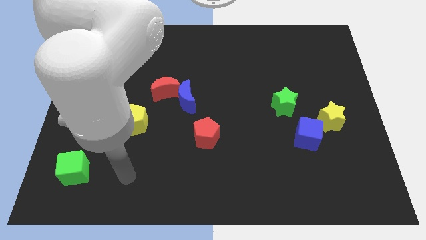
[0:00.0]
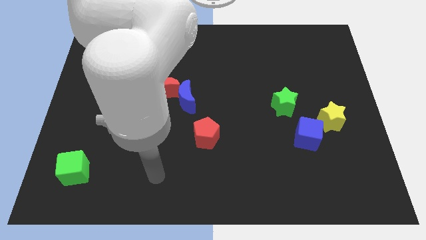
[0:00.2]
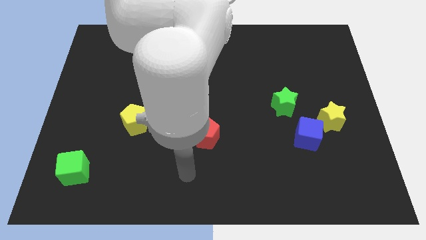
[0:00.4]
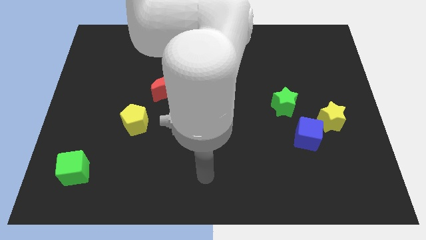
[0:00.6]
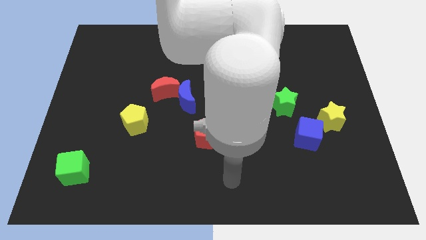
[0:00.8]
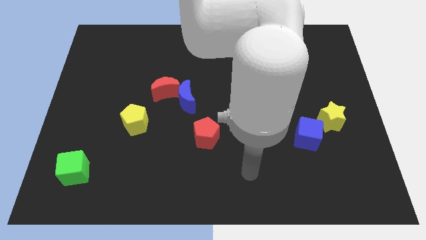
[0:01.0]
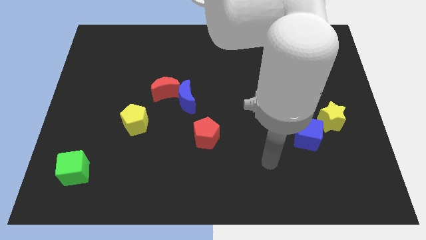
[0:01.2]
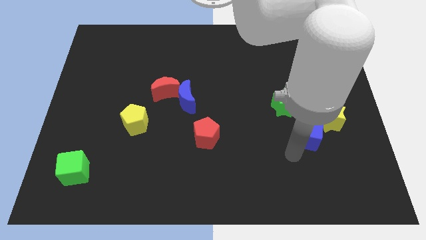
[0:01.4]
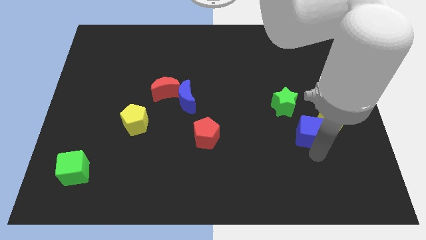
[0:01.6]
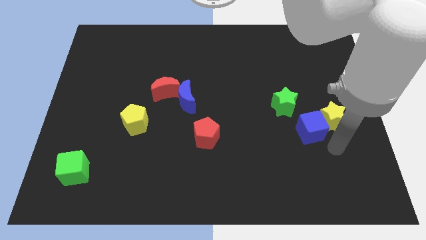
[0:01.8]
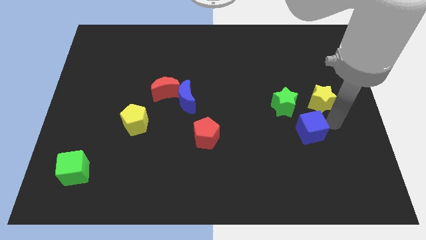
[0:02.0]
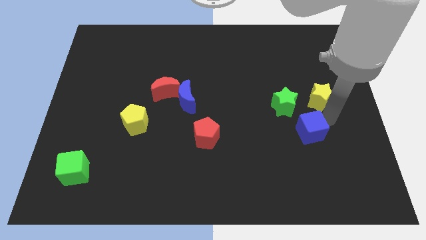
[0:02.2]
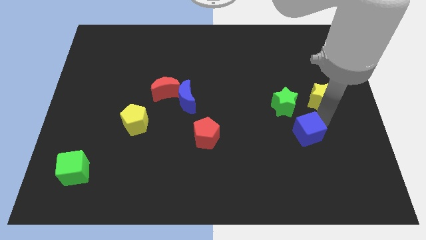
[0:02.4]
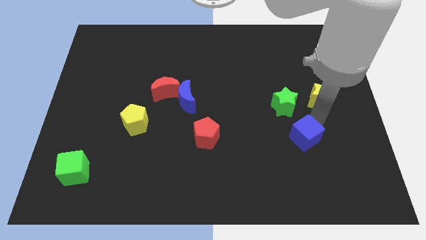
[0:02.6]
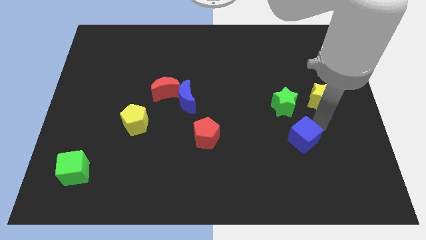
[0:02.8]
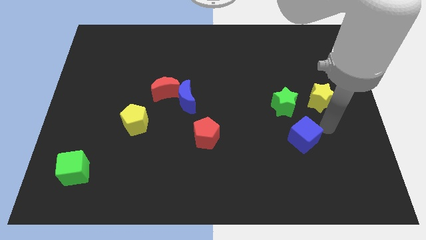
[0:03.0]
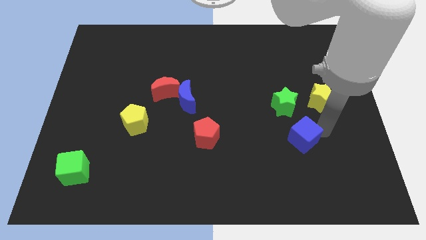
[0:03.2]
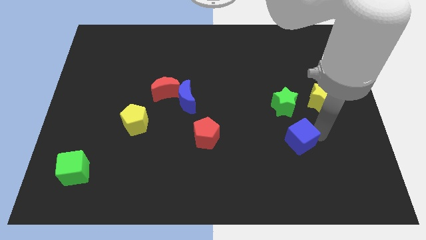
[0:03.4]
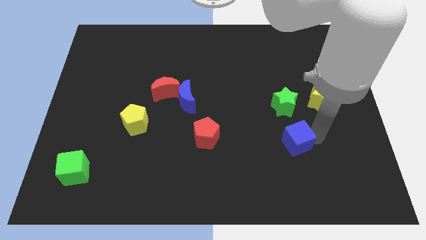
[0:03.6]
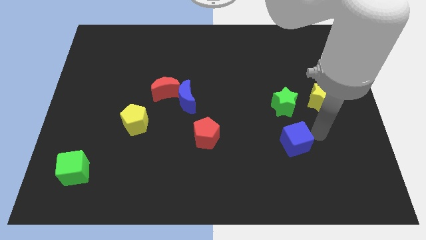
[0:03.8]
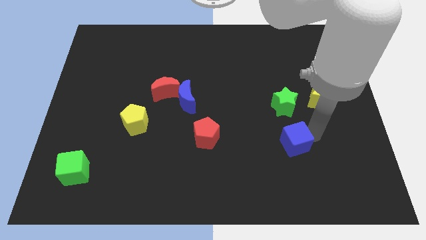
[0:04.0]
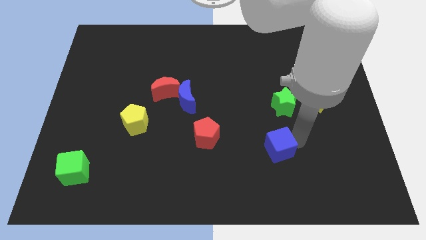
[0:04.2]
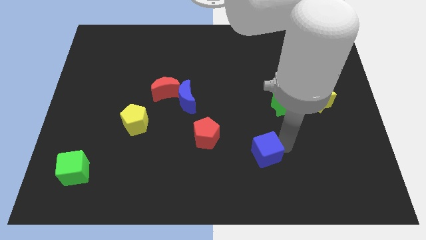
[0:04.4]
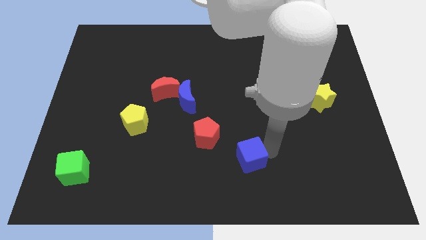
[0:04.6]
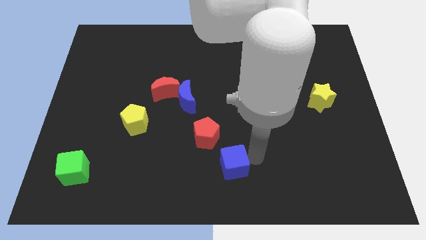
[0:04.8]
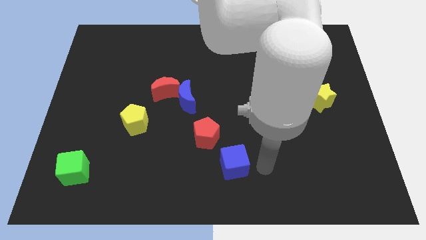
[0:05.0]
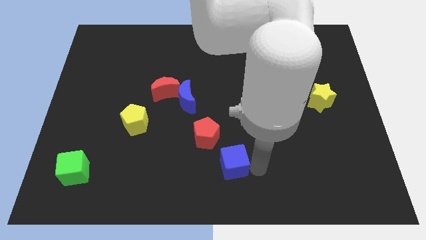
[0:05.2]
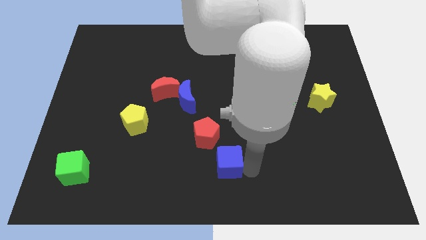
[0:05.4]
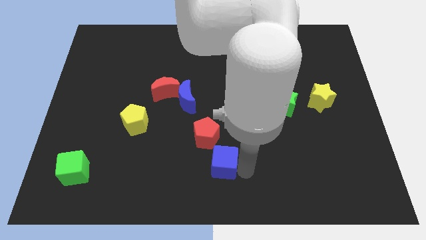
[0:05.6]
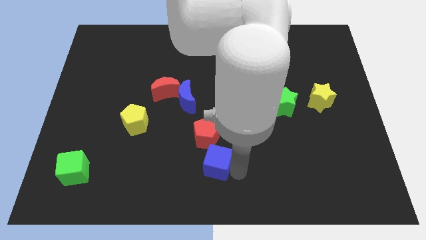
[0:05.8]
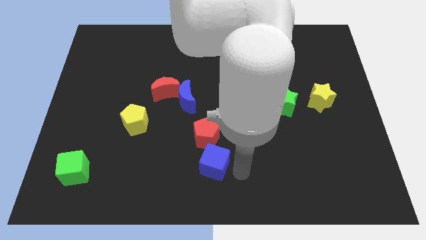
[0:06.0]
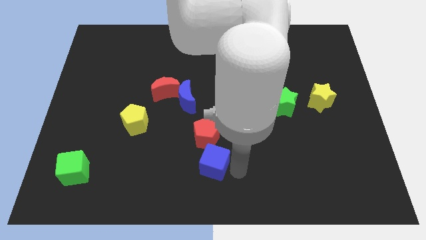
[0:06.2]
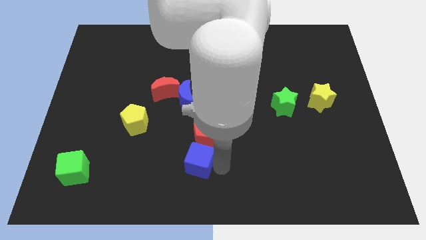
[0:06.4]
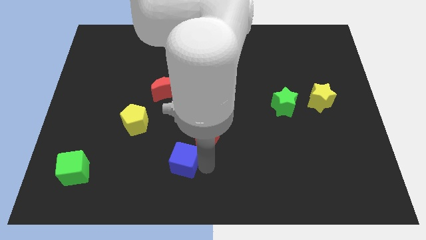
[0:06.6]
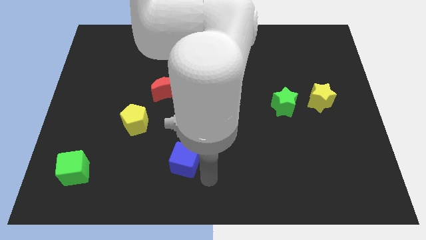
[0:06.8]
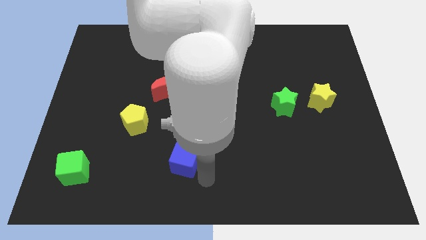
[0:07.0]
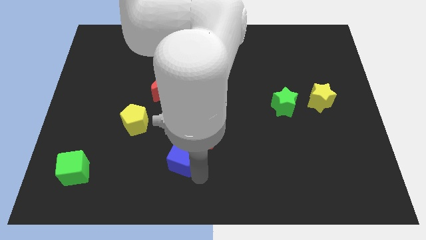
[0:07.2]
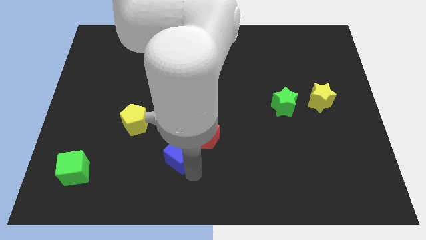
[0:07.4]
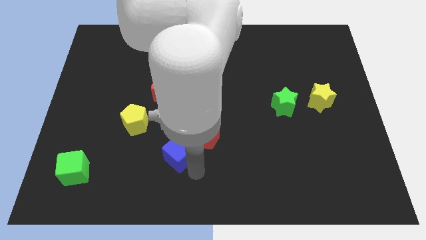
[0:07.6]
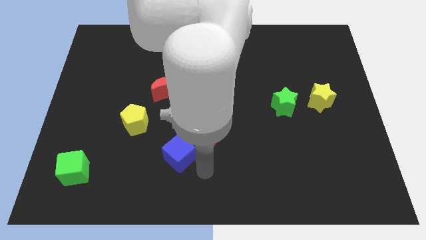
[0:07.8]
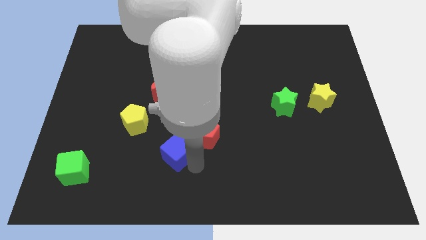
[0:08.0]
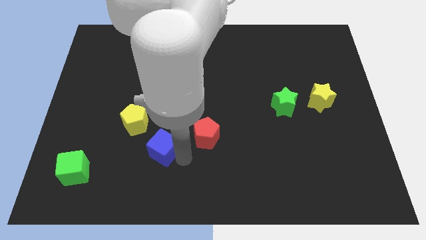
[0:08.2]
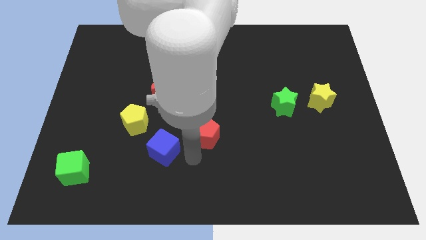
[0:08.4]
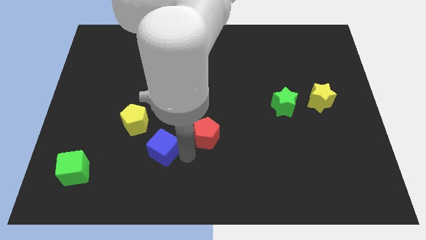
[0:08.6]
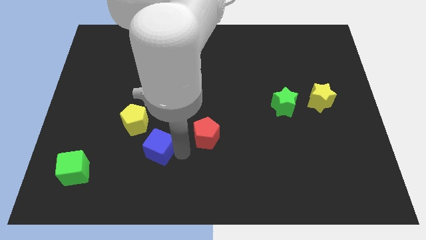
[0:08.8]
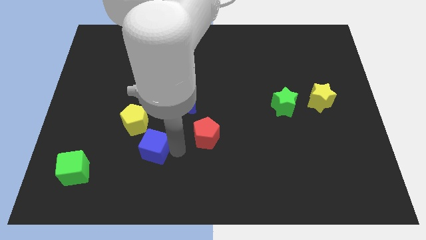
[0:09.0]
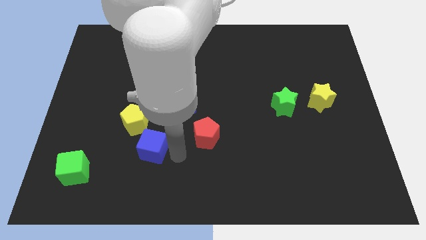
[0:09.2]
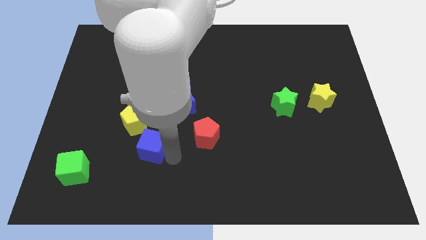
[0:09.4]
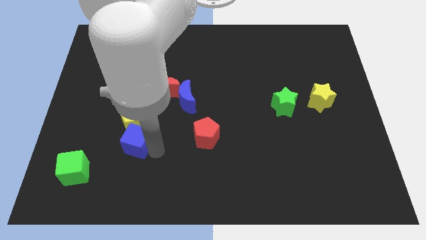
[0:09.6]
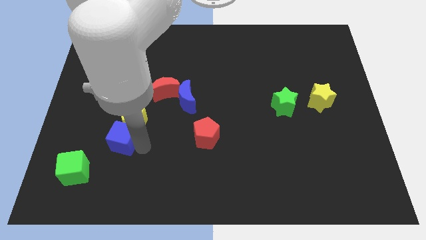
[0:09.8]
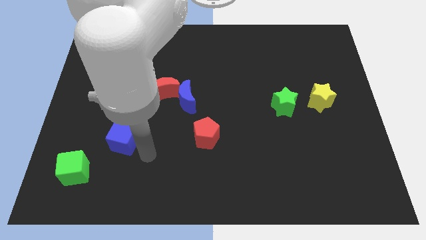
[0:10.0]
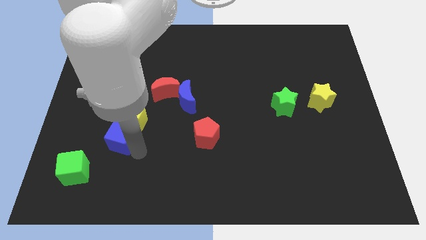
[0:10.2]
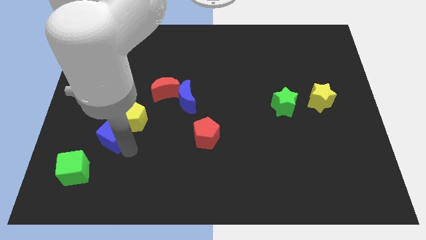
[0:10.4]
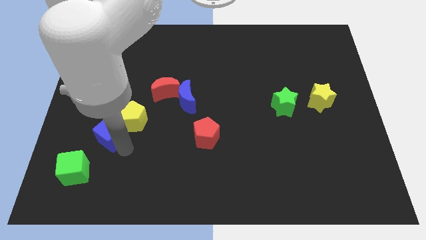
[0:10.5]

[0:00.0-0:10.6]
slide the blue cube left of the yellow pentagon

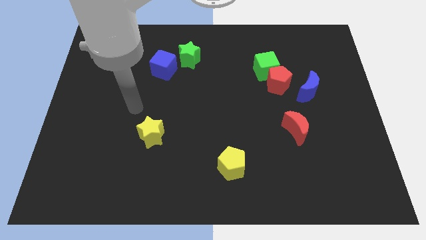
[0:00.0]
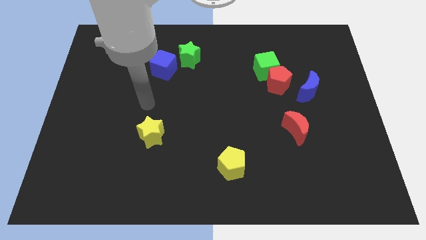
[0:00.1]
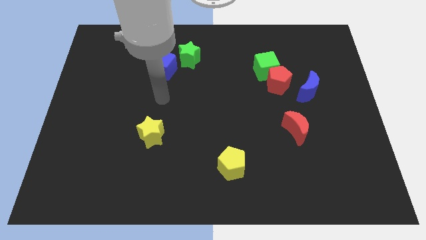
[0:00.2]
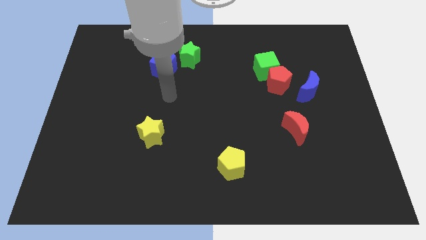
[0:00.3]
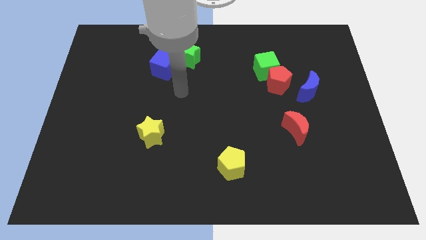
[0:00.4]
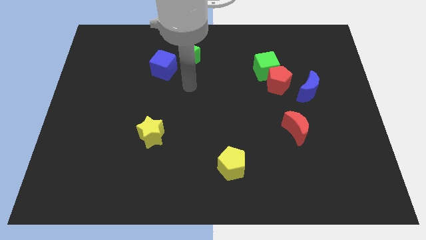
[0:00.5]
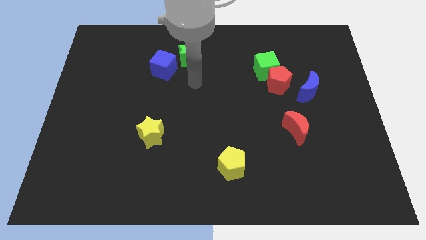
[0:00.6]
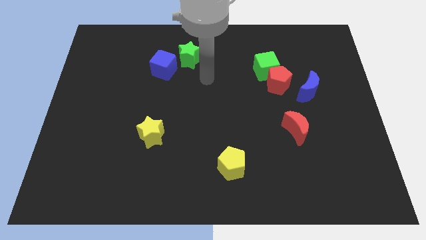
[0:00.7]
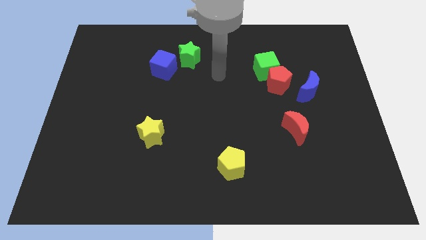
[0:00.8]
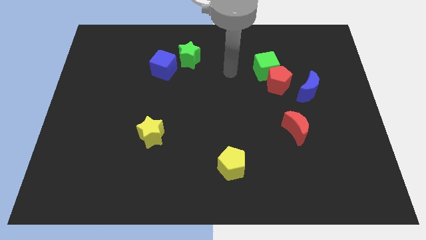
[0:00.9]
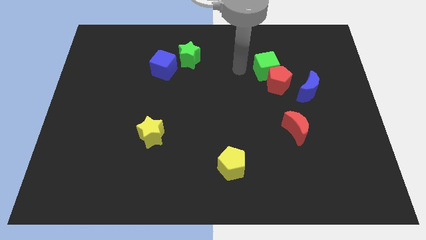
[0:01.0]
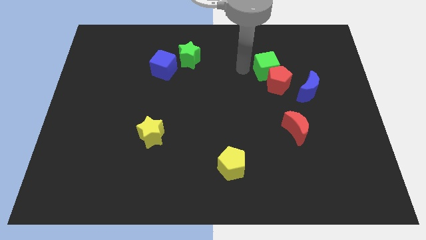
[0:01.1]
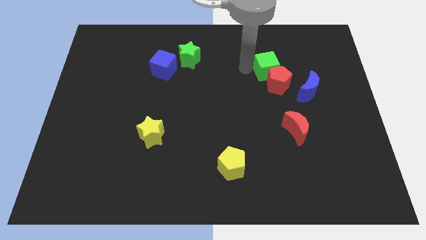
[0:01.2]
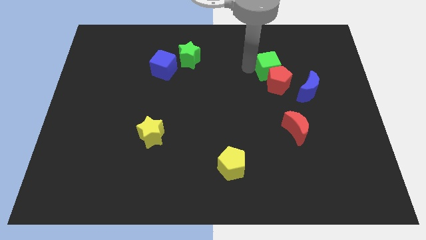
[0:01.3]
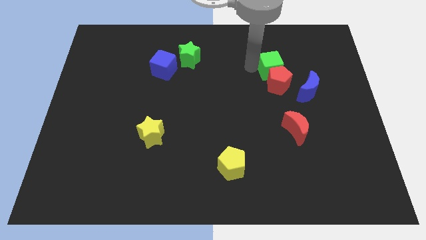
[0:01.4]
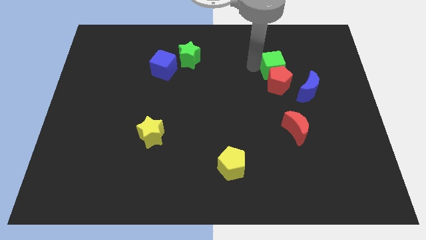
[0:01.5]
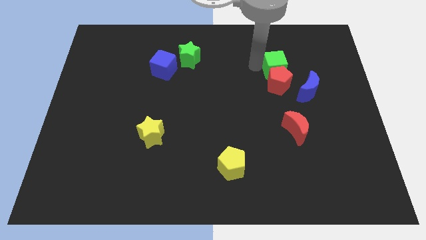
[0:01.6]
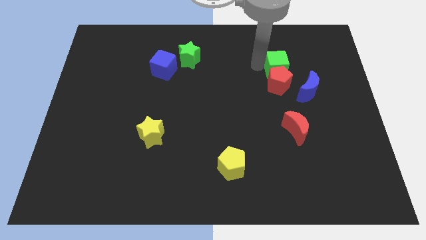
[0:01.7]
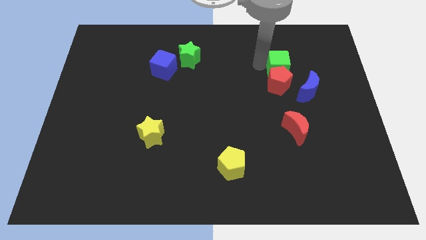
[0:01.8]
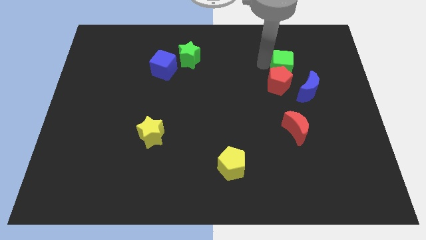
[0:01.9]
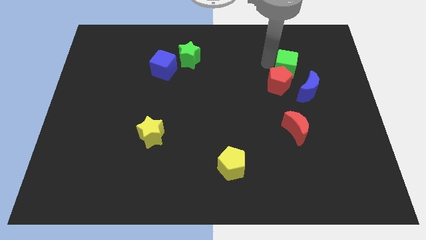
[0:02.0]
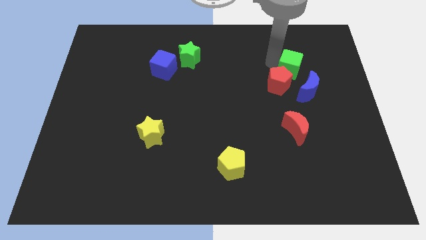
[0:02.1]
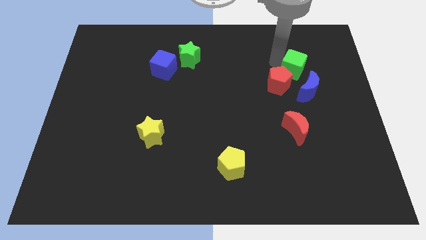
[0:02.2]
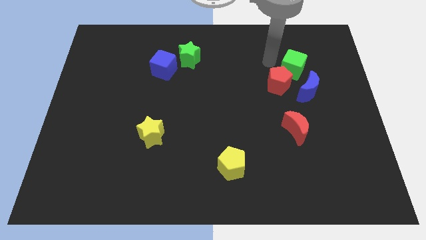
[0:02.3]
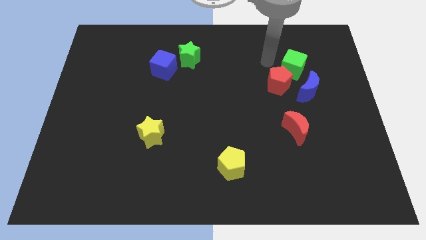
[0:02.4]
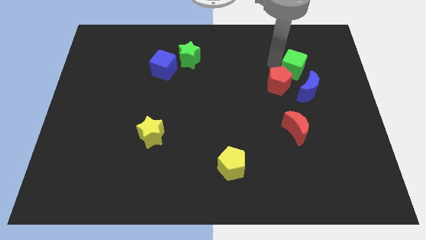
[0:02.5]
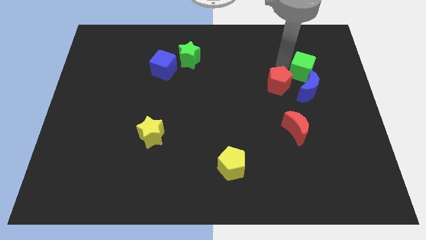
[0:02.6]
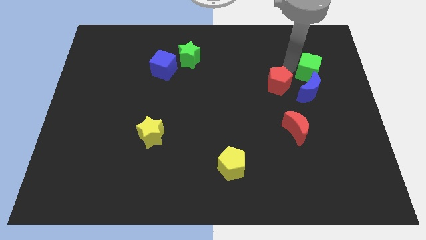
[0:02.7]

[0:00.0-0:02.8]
slide the green cube to the top right side of the blue moon
